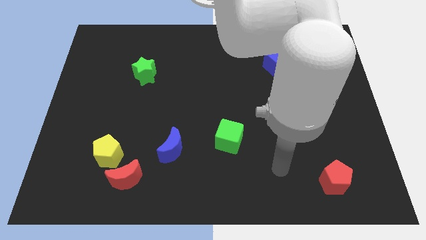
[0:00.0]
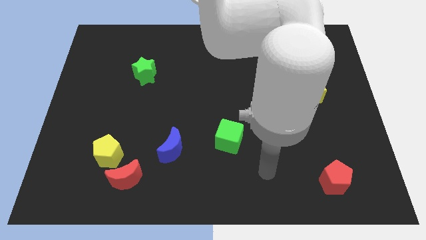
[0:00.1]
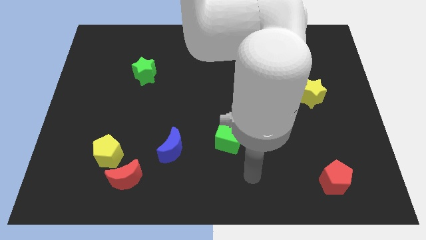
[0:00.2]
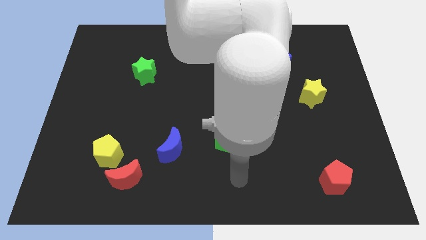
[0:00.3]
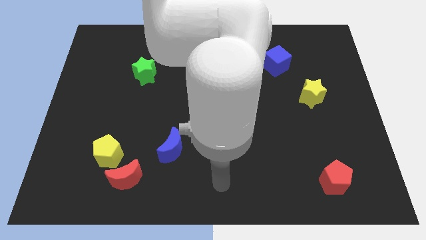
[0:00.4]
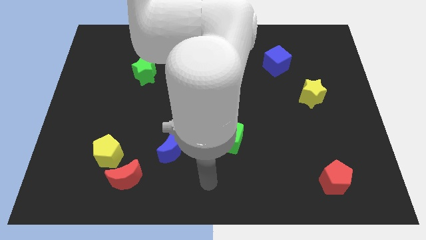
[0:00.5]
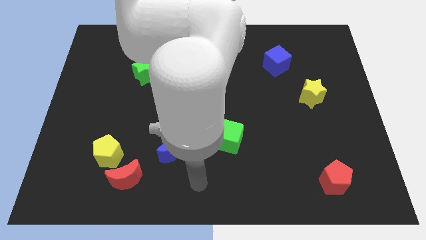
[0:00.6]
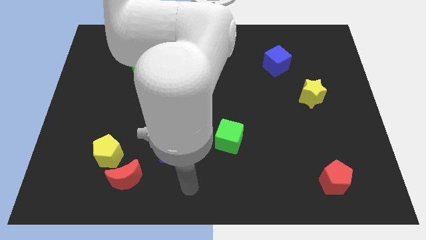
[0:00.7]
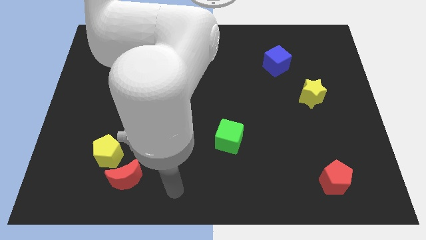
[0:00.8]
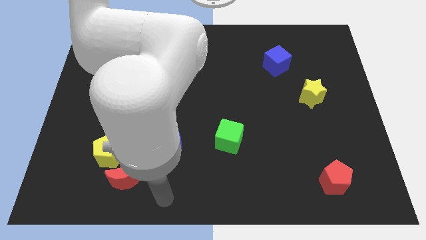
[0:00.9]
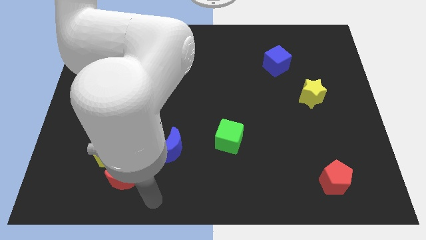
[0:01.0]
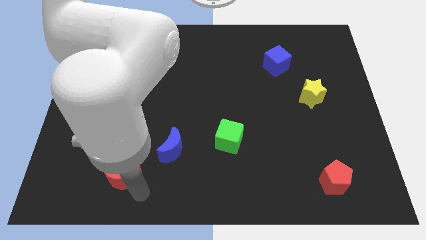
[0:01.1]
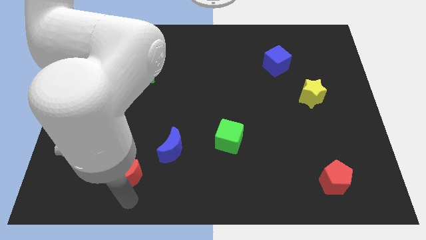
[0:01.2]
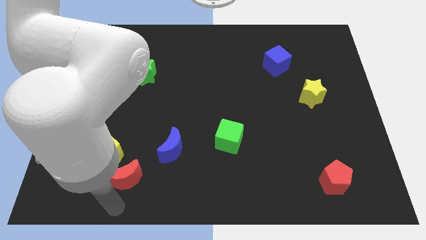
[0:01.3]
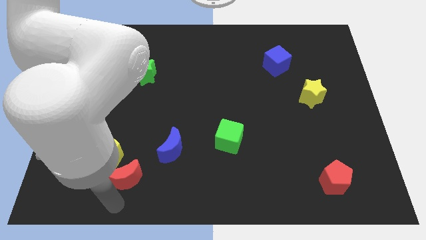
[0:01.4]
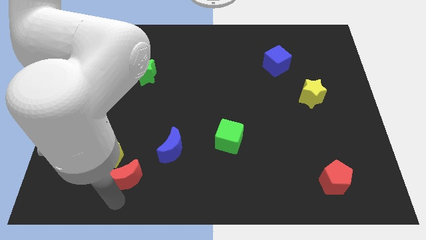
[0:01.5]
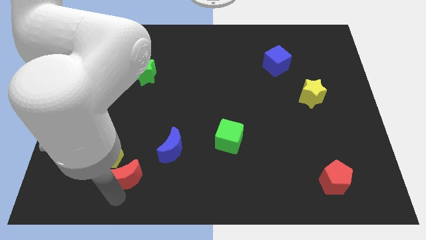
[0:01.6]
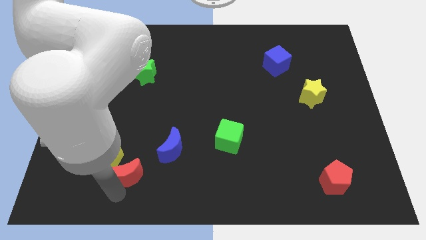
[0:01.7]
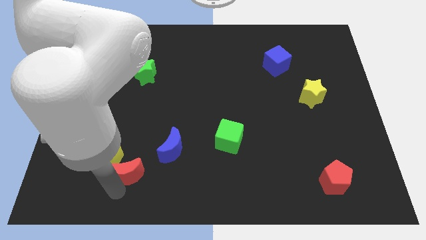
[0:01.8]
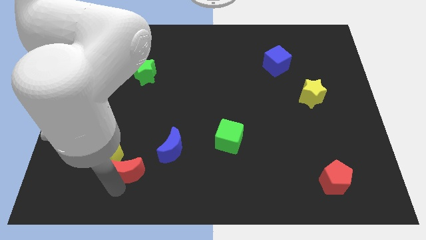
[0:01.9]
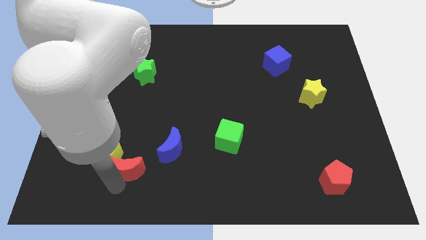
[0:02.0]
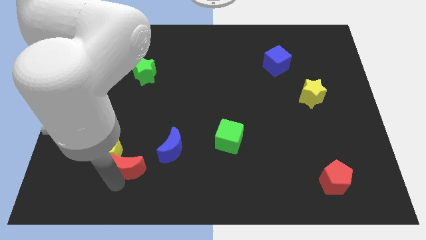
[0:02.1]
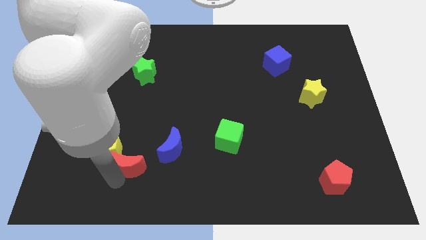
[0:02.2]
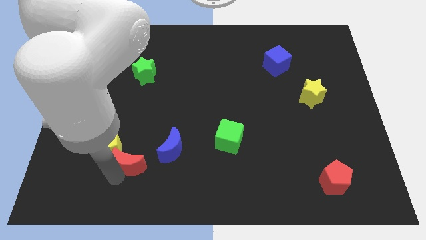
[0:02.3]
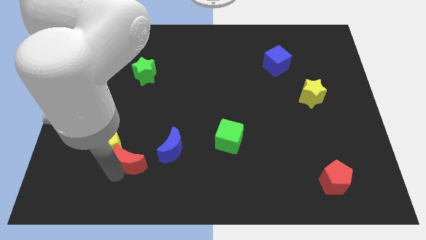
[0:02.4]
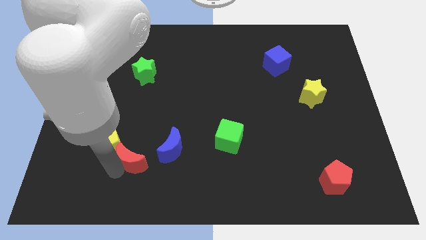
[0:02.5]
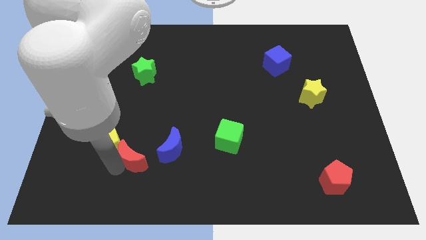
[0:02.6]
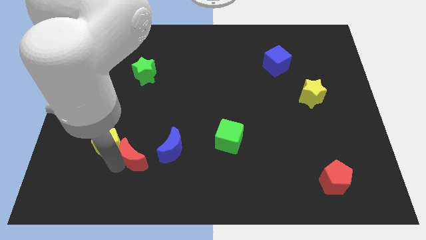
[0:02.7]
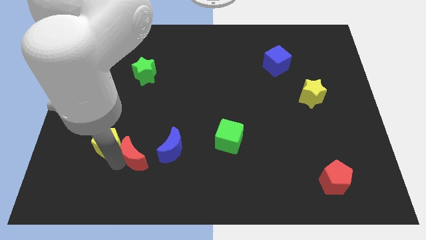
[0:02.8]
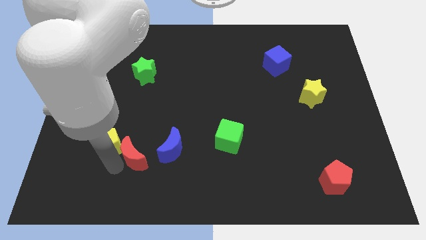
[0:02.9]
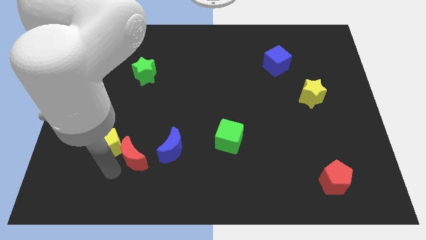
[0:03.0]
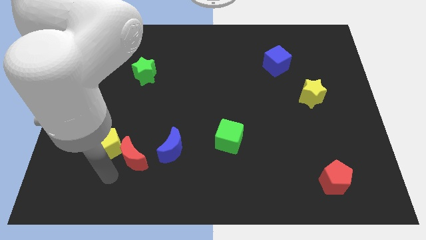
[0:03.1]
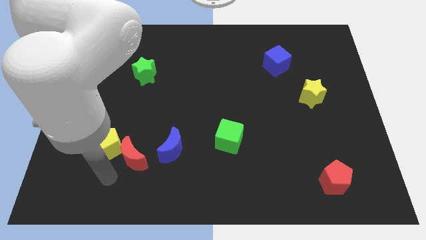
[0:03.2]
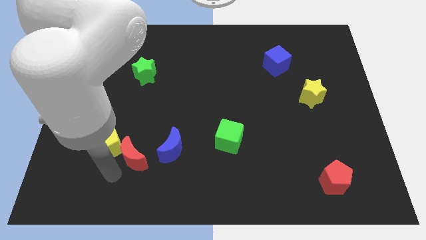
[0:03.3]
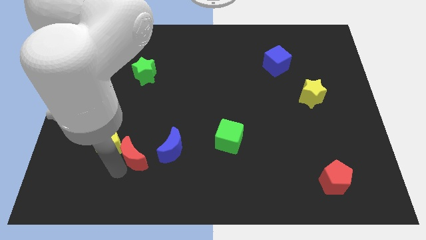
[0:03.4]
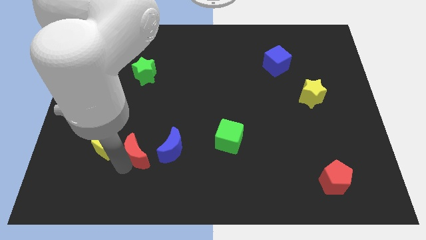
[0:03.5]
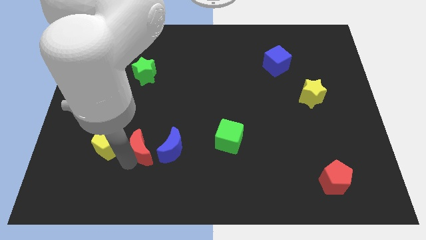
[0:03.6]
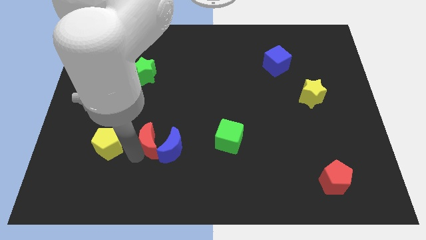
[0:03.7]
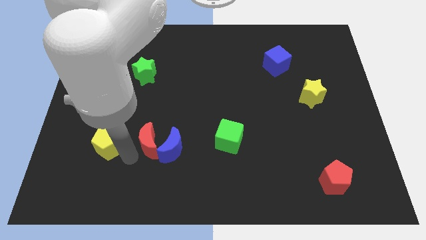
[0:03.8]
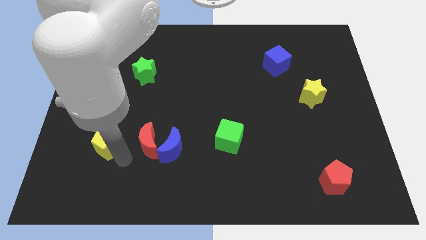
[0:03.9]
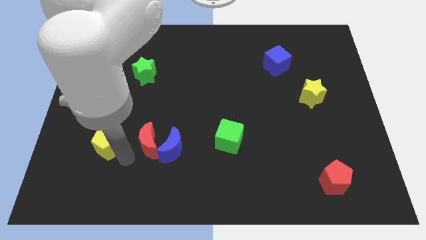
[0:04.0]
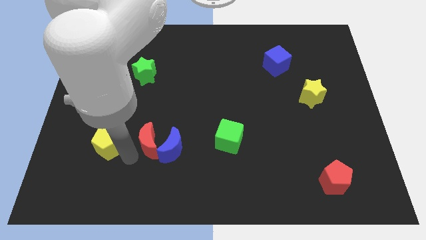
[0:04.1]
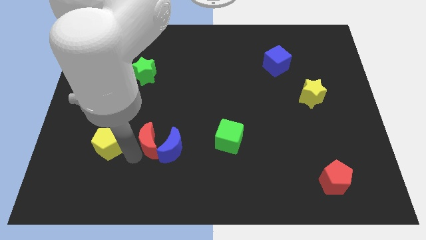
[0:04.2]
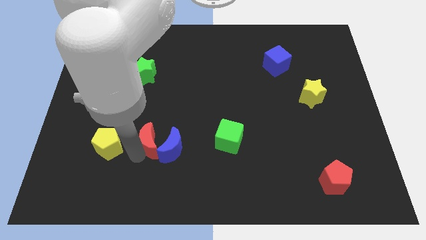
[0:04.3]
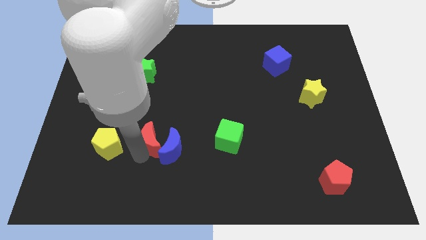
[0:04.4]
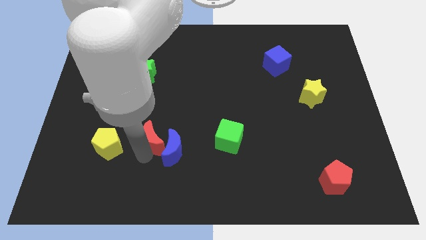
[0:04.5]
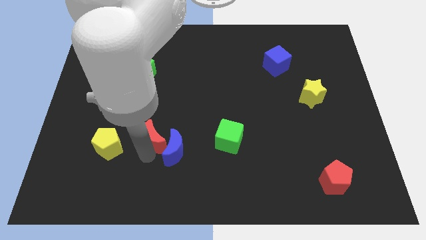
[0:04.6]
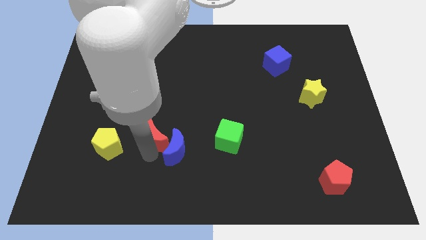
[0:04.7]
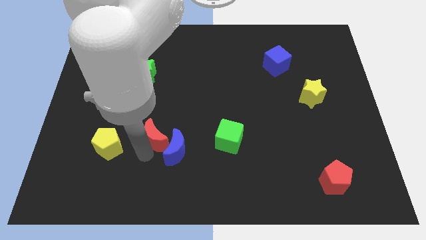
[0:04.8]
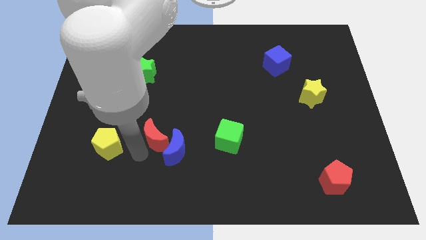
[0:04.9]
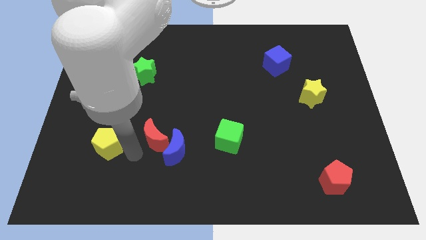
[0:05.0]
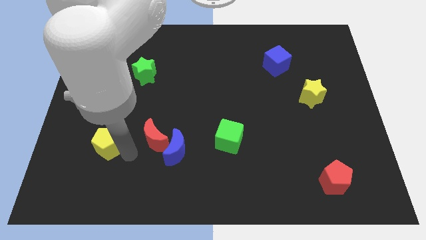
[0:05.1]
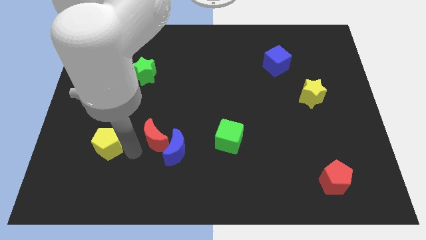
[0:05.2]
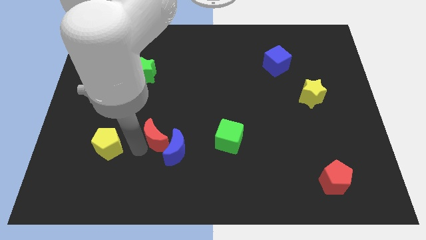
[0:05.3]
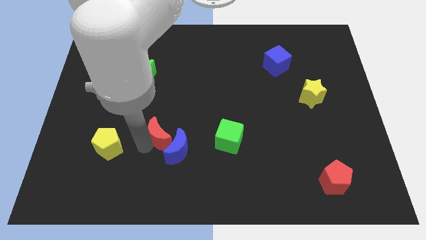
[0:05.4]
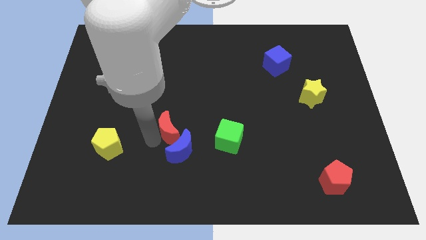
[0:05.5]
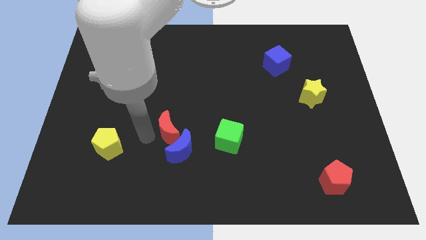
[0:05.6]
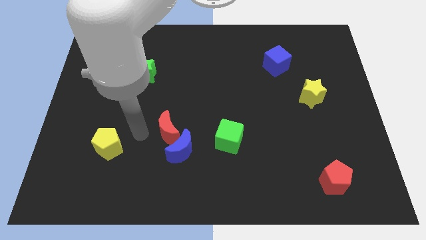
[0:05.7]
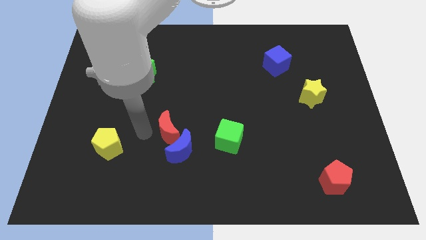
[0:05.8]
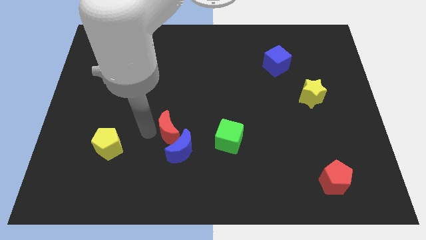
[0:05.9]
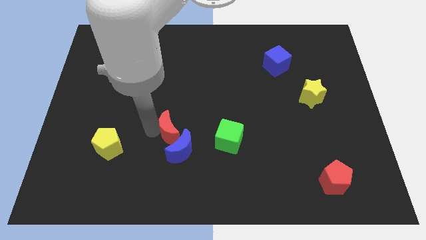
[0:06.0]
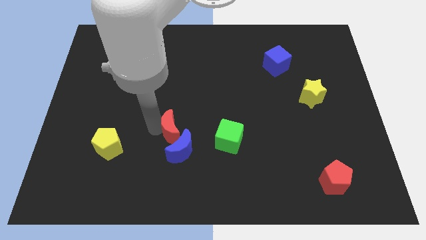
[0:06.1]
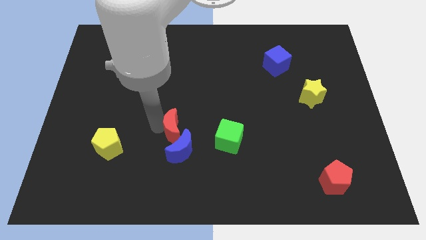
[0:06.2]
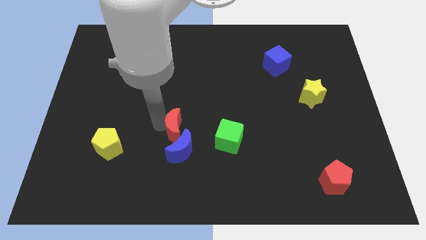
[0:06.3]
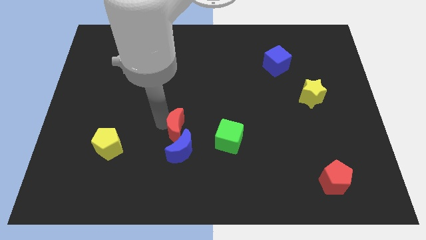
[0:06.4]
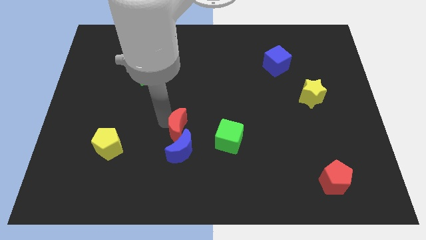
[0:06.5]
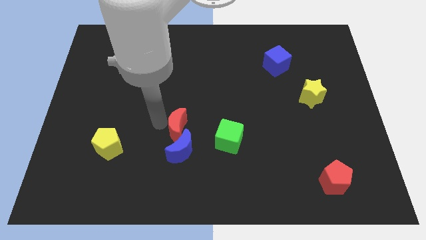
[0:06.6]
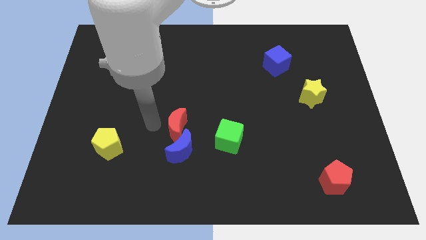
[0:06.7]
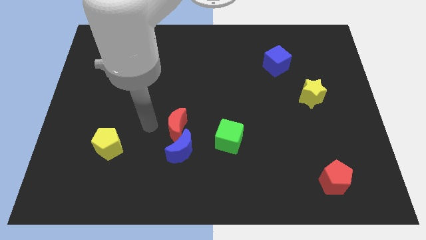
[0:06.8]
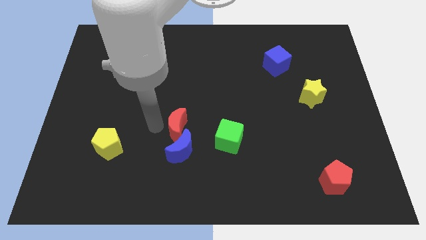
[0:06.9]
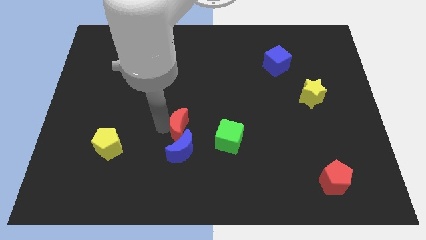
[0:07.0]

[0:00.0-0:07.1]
push the red moon diagonally up and to the right of the blue moon

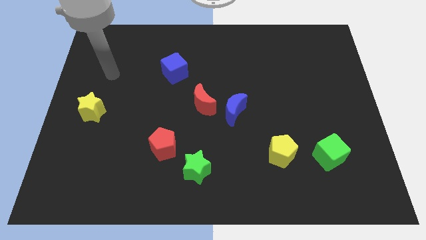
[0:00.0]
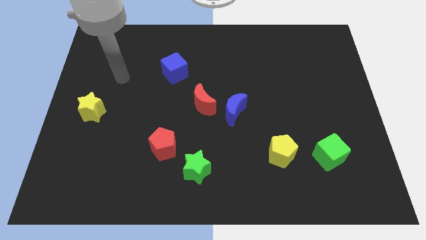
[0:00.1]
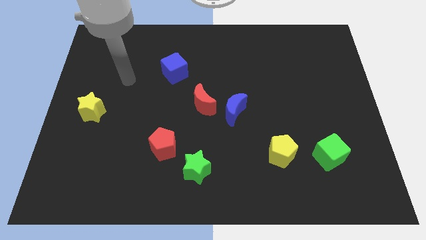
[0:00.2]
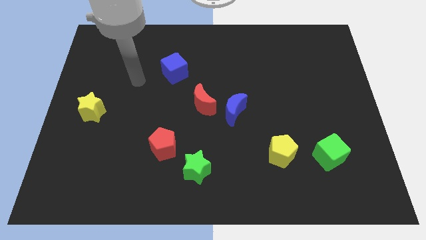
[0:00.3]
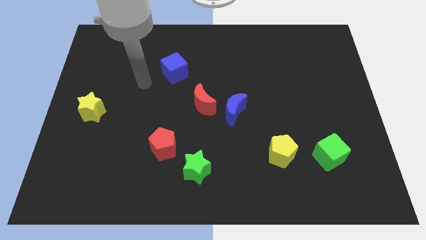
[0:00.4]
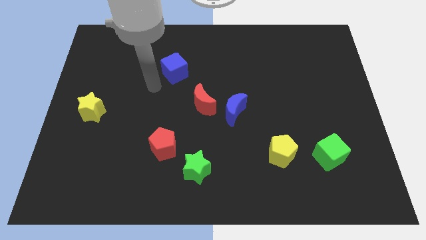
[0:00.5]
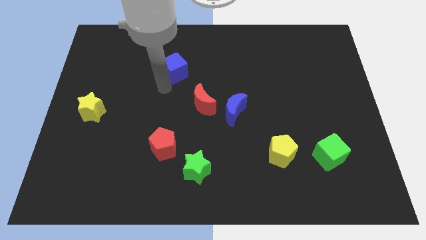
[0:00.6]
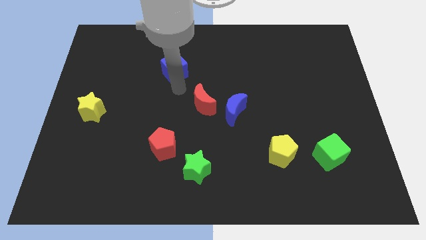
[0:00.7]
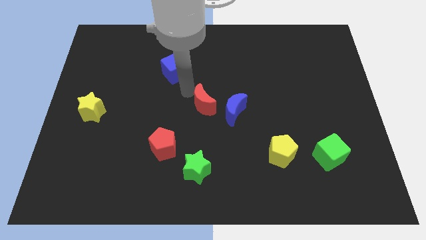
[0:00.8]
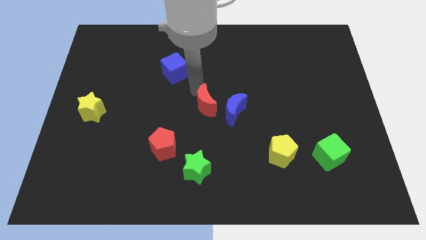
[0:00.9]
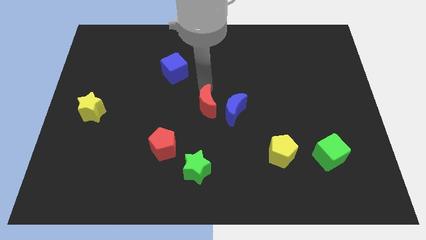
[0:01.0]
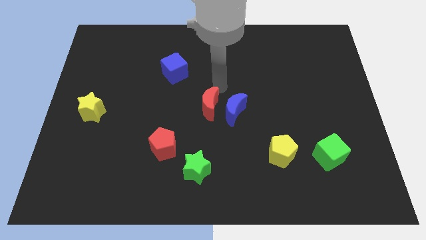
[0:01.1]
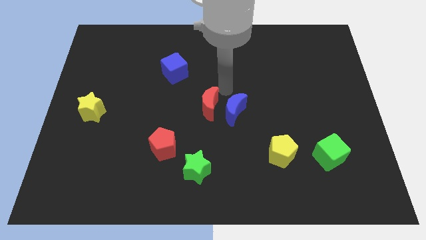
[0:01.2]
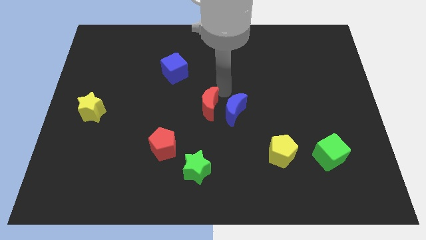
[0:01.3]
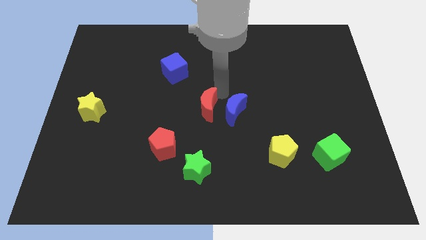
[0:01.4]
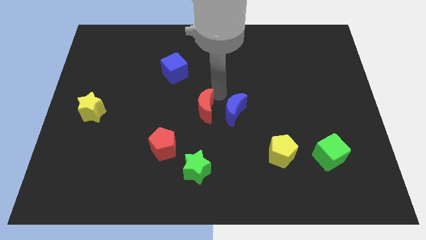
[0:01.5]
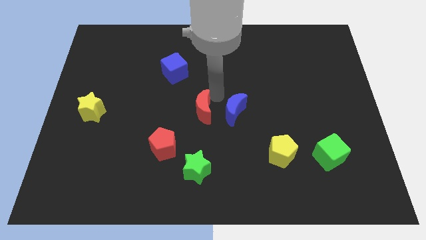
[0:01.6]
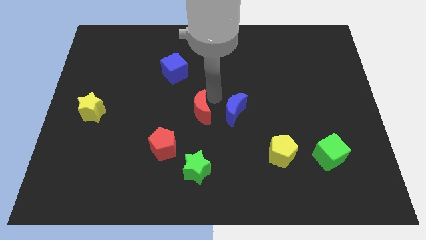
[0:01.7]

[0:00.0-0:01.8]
put the red moon to the top right of the red pentagon
